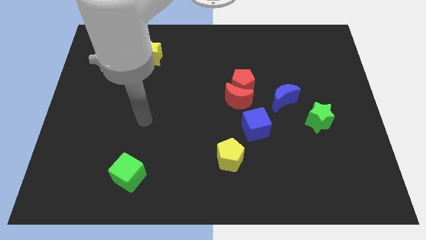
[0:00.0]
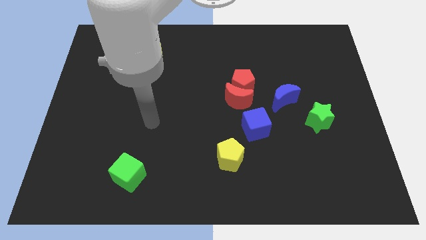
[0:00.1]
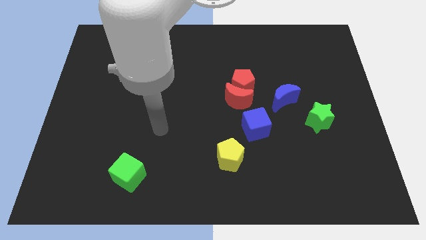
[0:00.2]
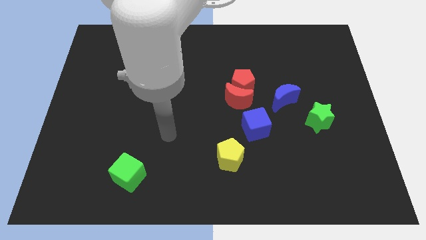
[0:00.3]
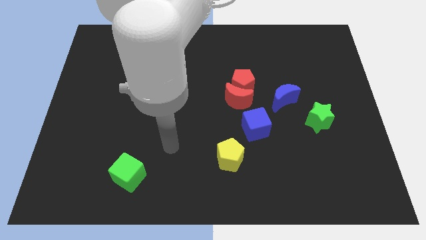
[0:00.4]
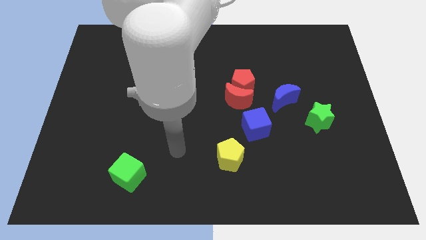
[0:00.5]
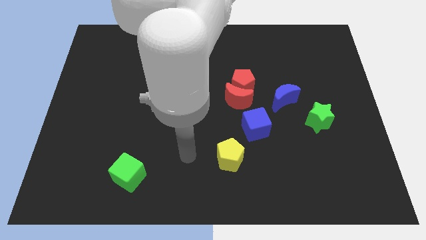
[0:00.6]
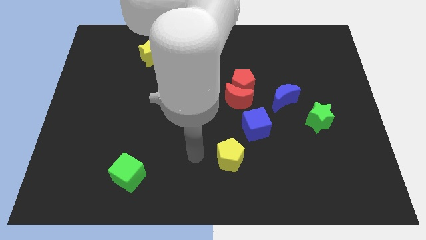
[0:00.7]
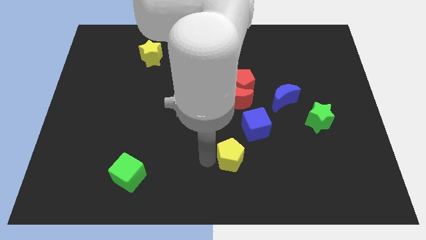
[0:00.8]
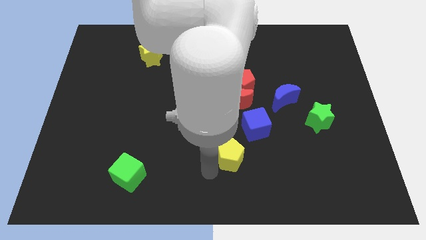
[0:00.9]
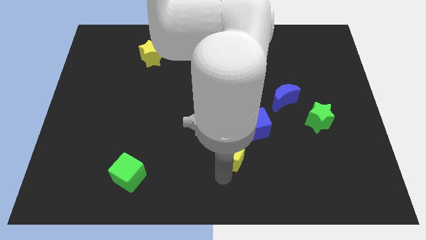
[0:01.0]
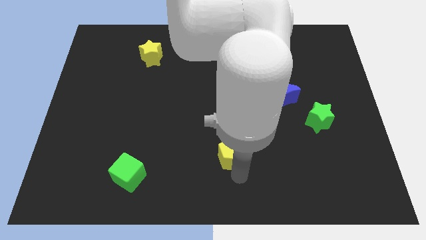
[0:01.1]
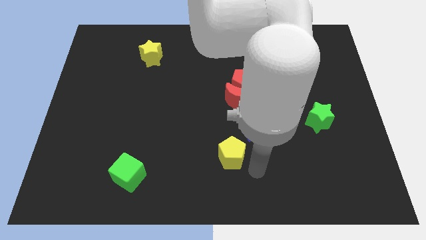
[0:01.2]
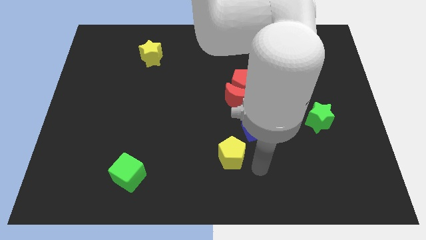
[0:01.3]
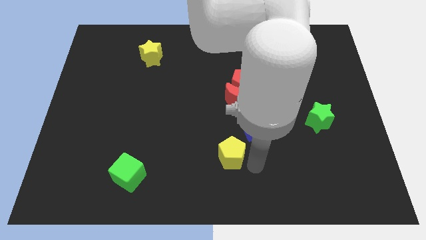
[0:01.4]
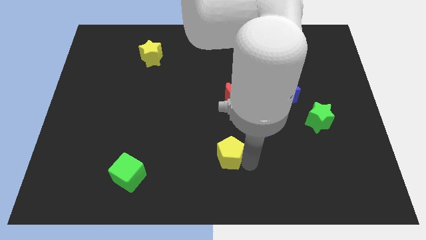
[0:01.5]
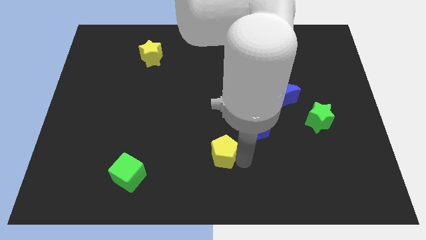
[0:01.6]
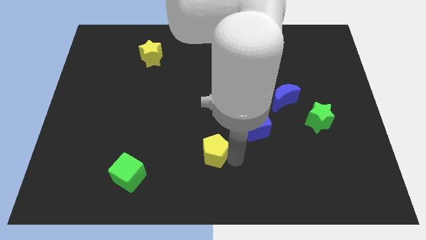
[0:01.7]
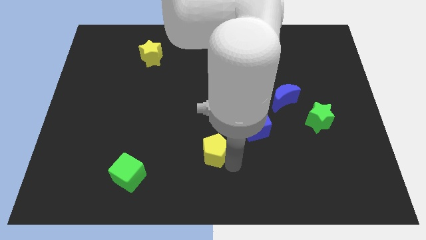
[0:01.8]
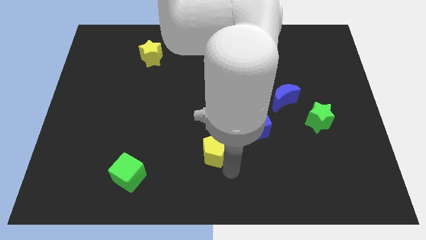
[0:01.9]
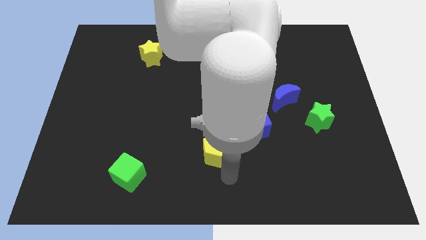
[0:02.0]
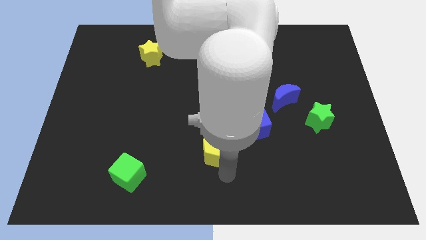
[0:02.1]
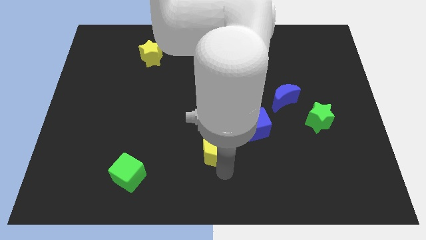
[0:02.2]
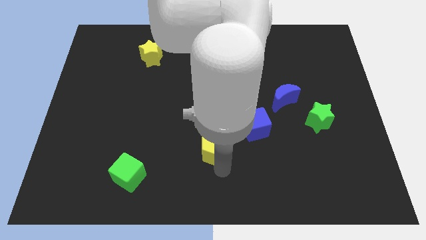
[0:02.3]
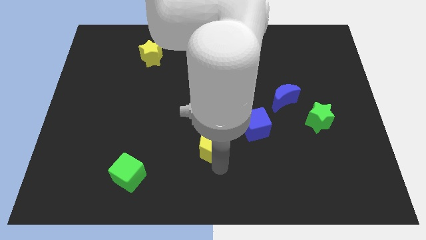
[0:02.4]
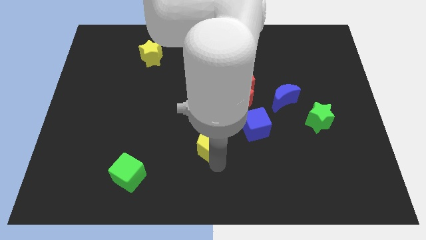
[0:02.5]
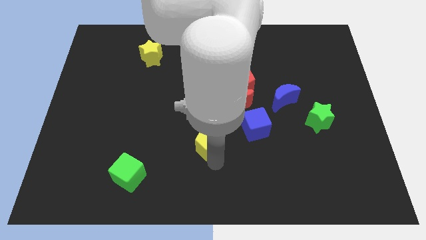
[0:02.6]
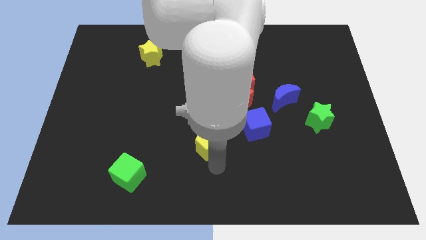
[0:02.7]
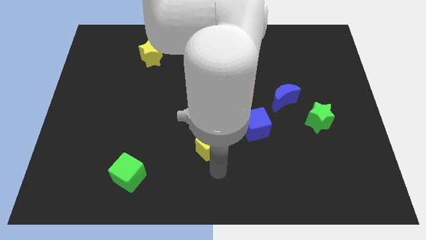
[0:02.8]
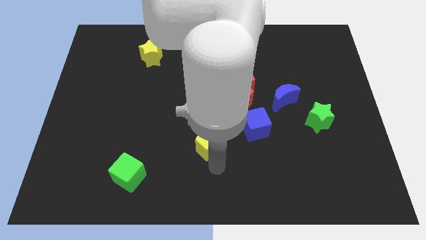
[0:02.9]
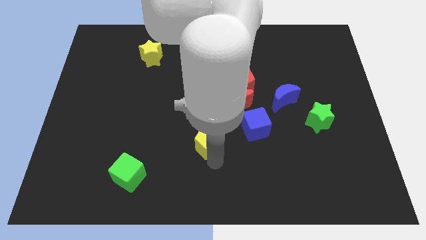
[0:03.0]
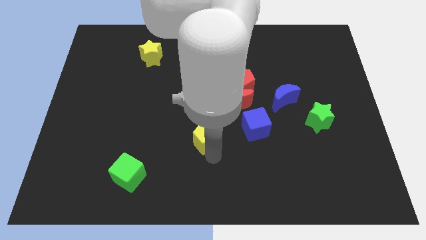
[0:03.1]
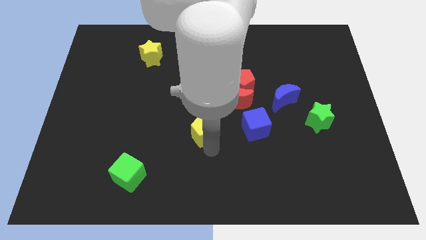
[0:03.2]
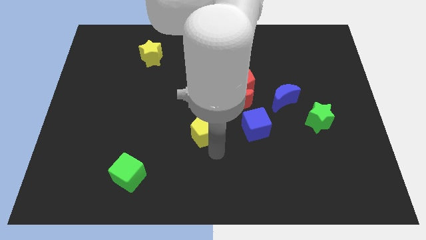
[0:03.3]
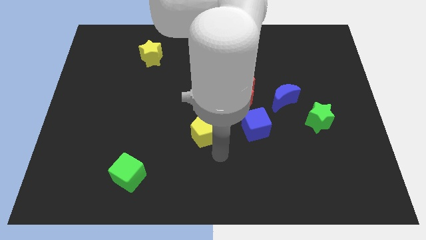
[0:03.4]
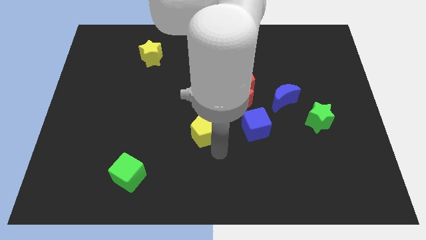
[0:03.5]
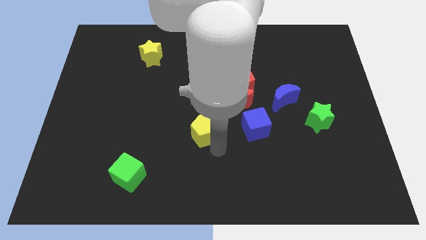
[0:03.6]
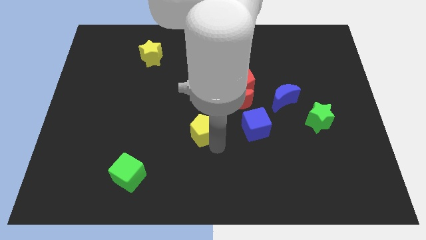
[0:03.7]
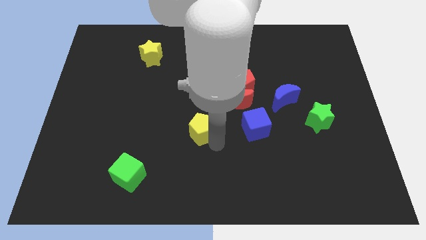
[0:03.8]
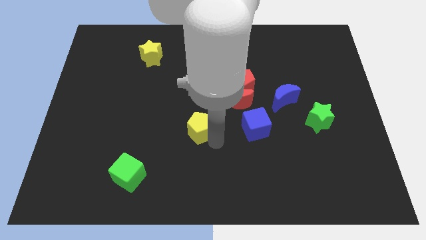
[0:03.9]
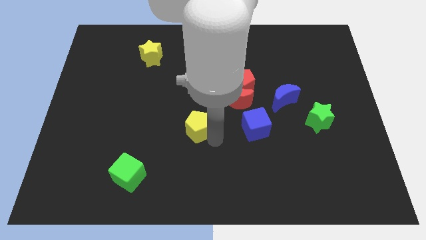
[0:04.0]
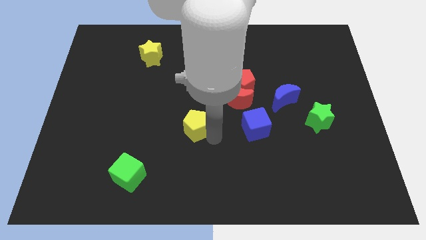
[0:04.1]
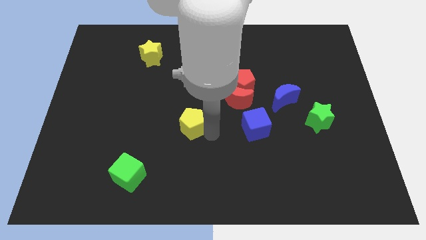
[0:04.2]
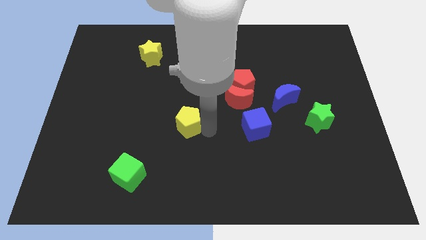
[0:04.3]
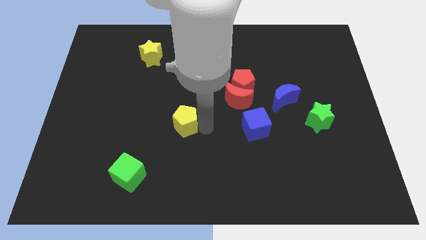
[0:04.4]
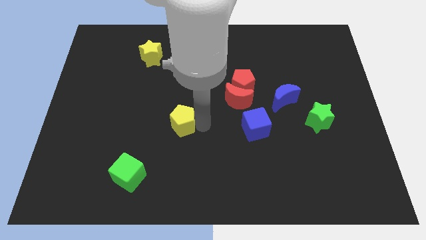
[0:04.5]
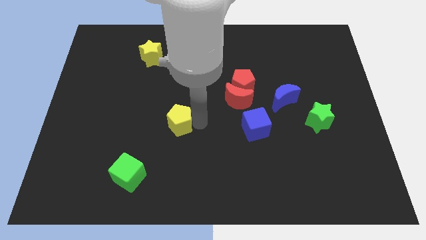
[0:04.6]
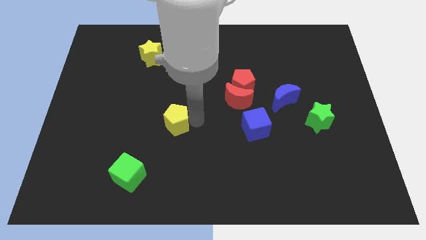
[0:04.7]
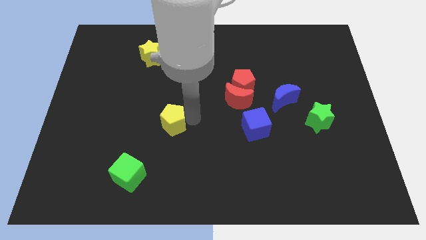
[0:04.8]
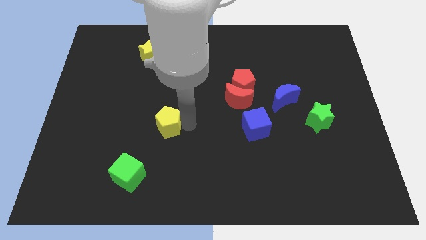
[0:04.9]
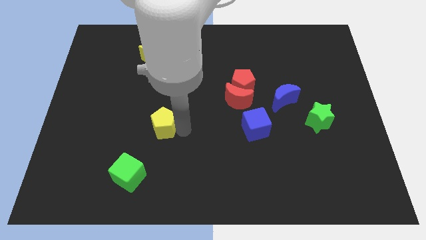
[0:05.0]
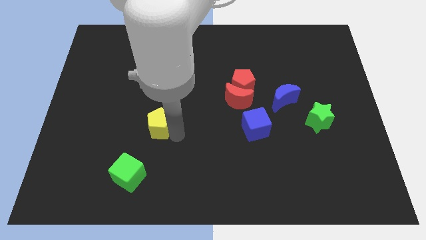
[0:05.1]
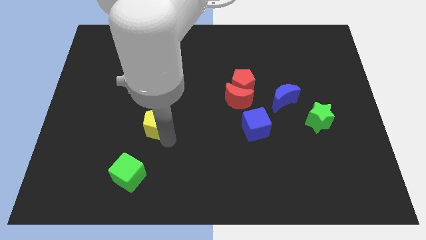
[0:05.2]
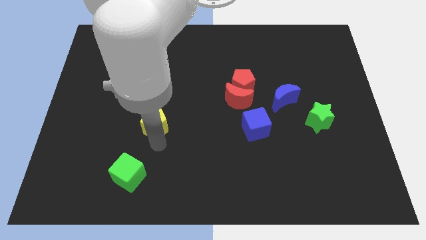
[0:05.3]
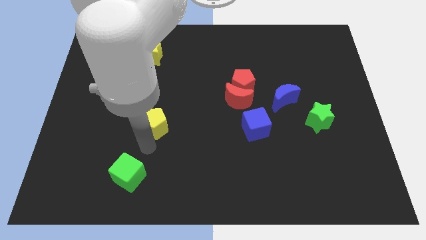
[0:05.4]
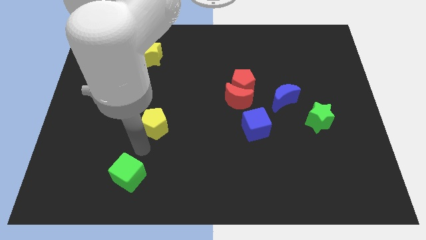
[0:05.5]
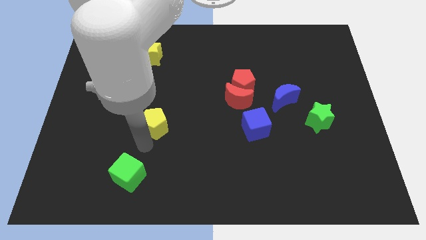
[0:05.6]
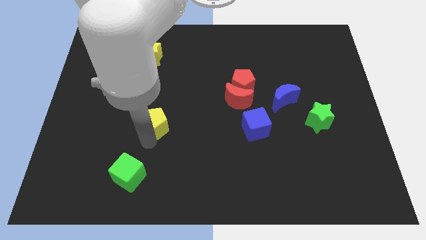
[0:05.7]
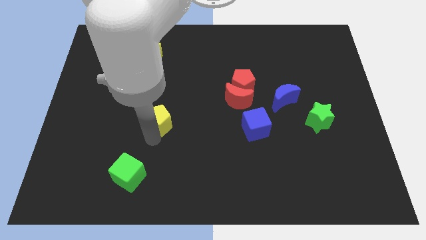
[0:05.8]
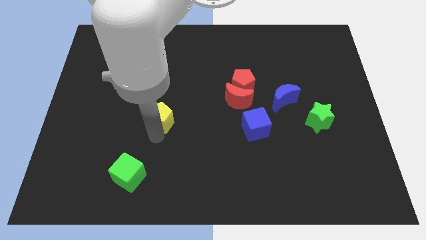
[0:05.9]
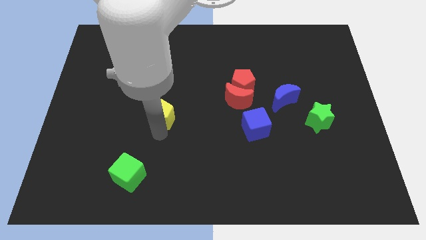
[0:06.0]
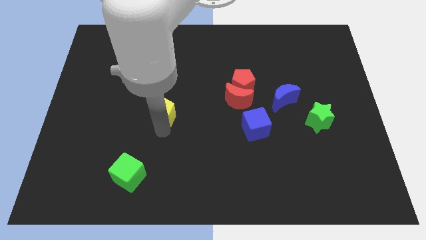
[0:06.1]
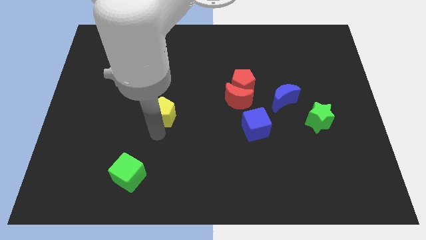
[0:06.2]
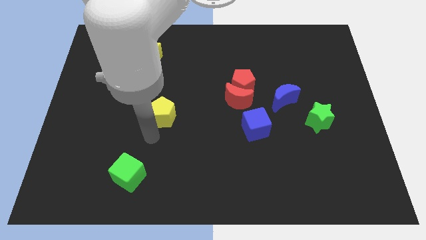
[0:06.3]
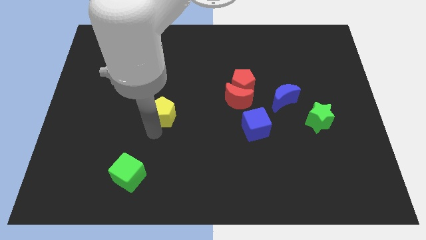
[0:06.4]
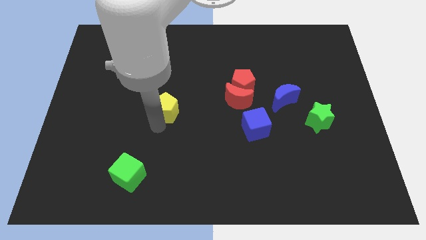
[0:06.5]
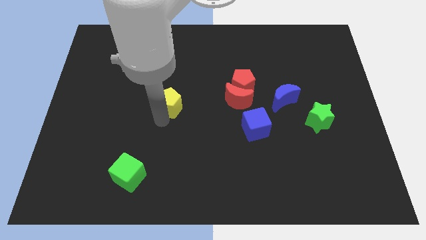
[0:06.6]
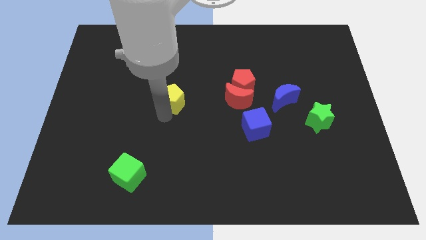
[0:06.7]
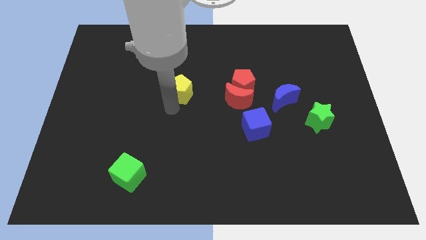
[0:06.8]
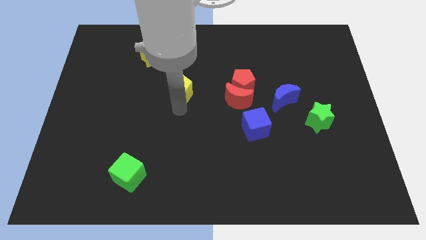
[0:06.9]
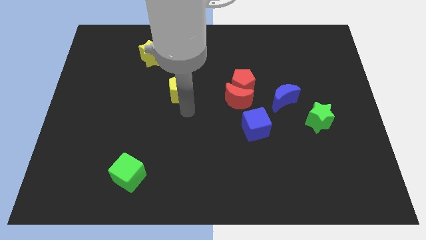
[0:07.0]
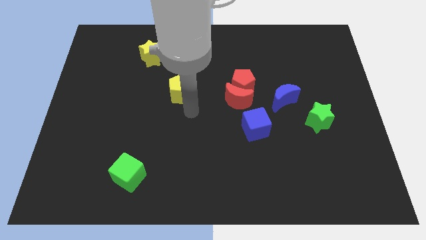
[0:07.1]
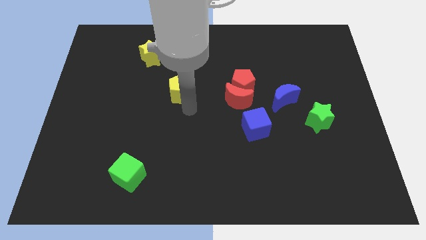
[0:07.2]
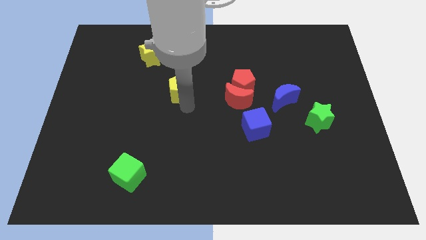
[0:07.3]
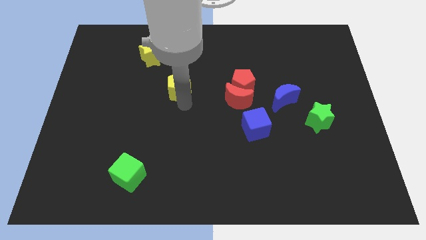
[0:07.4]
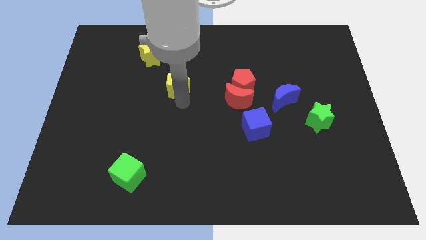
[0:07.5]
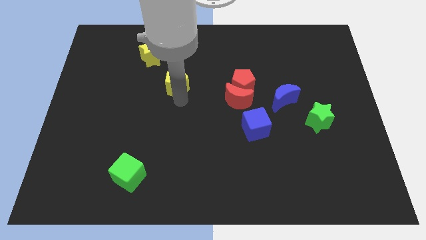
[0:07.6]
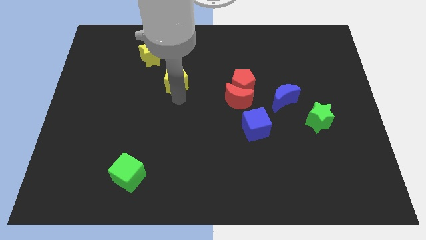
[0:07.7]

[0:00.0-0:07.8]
slide the yellow pentagon to the bottom right of the yellow star
